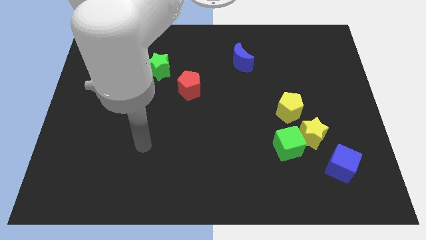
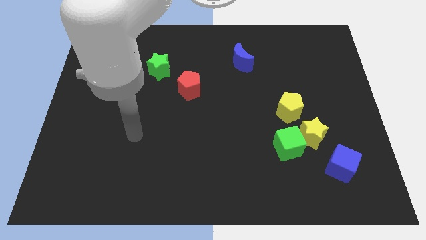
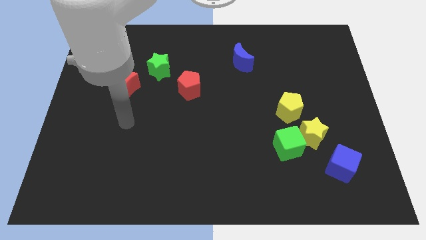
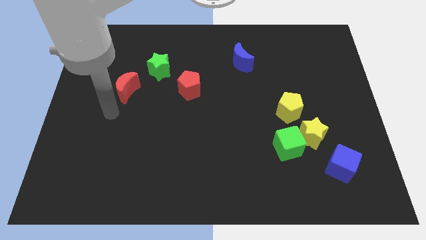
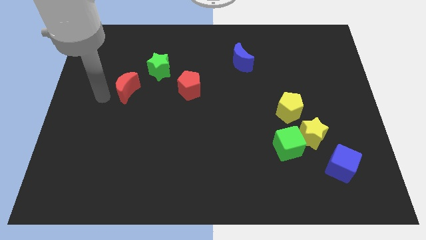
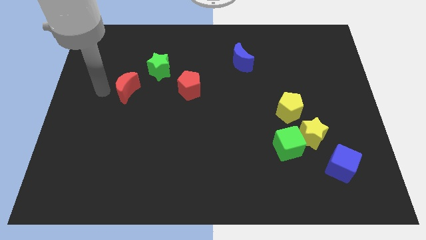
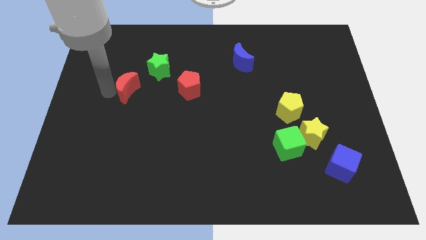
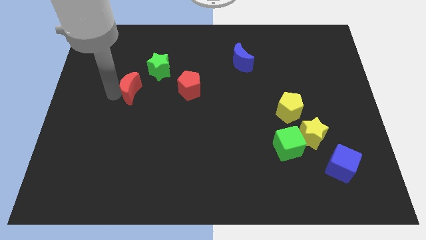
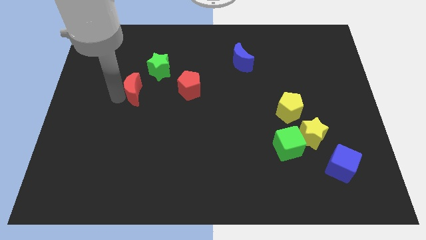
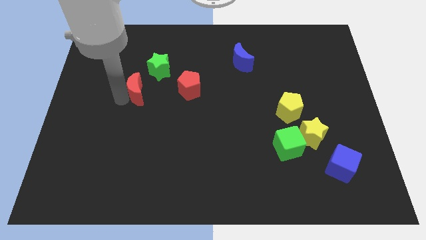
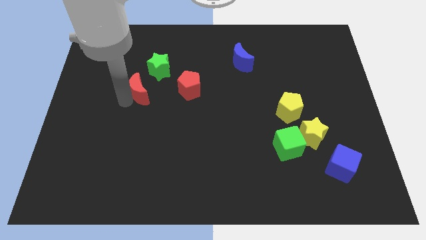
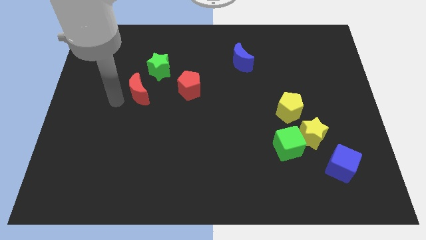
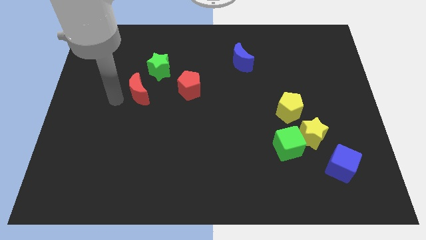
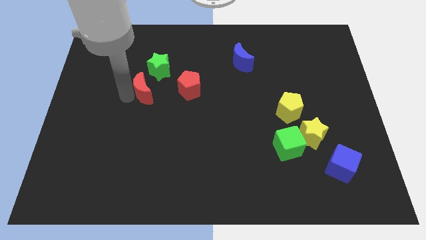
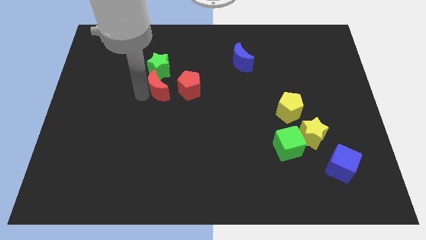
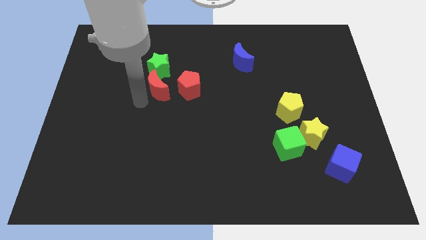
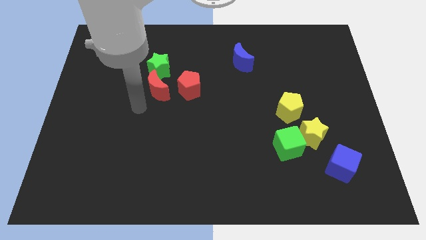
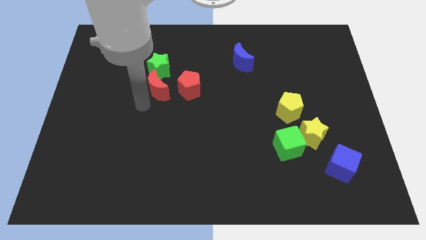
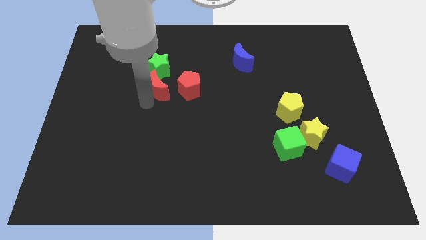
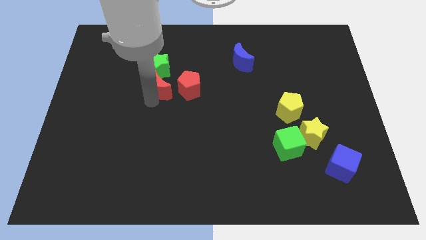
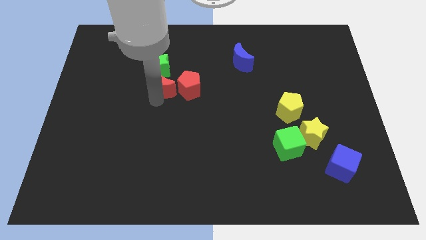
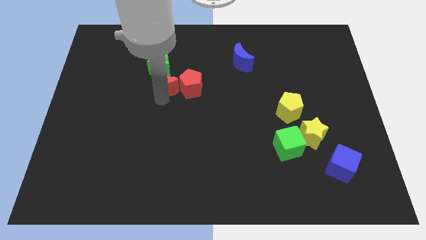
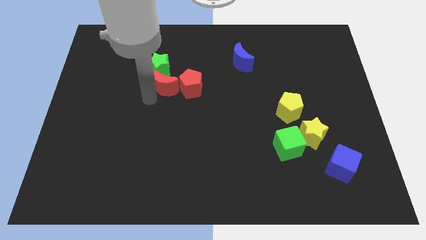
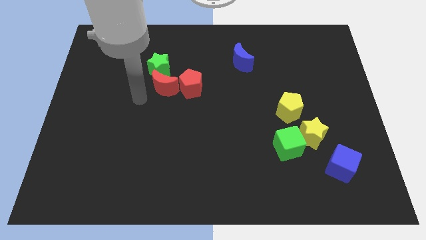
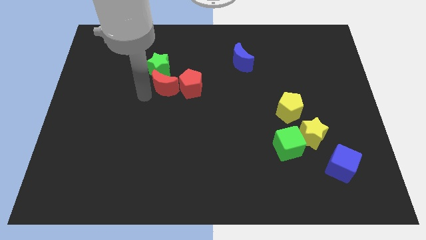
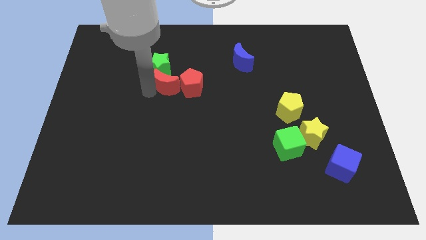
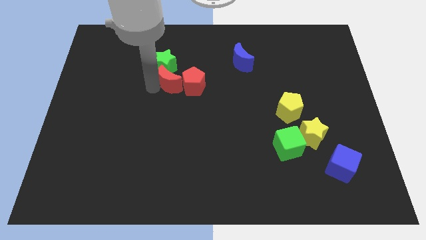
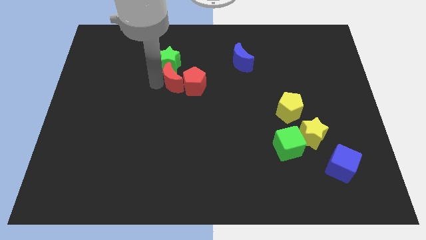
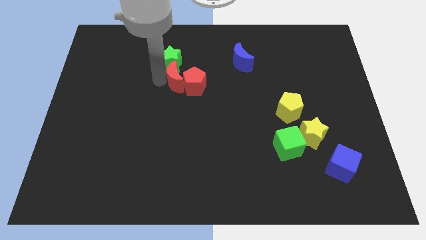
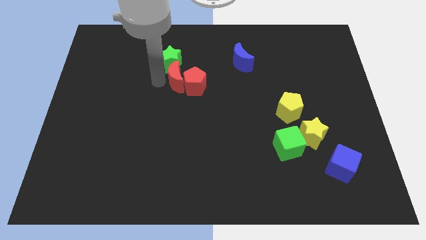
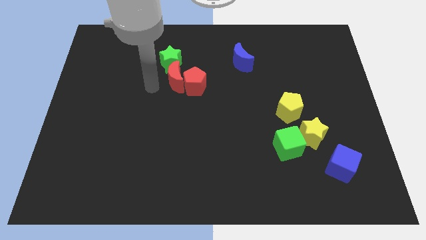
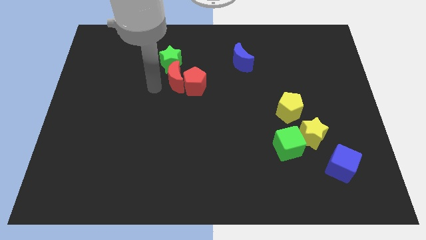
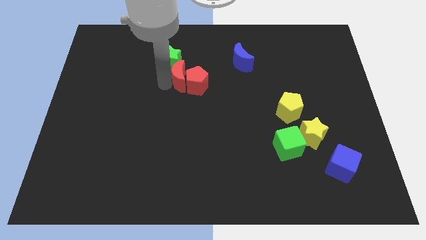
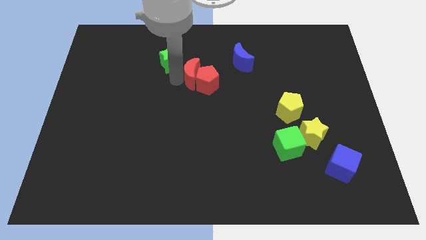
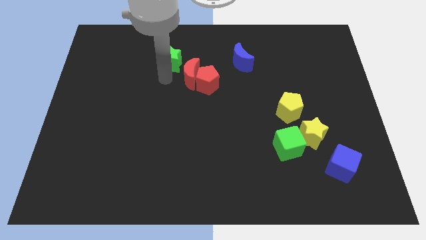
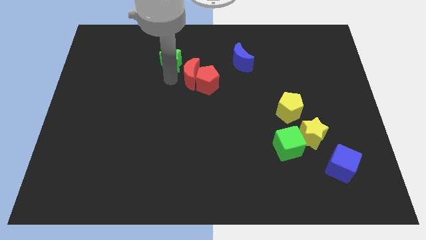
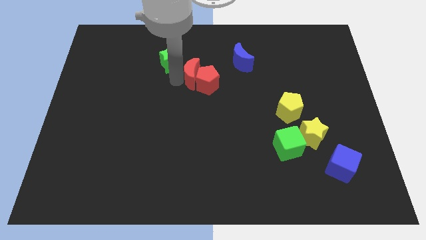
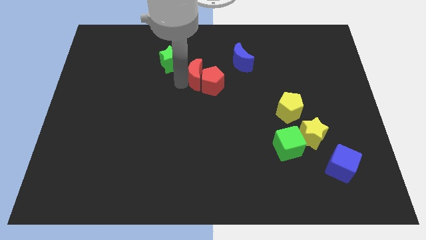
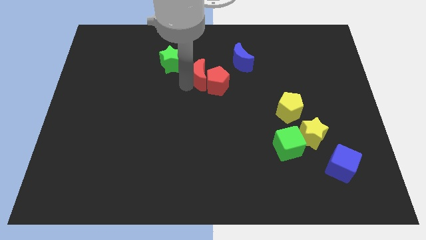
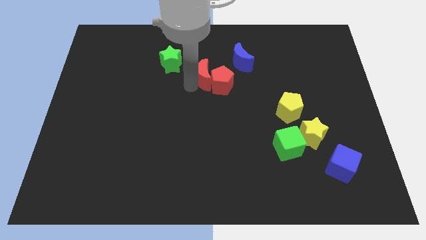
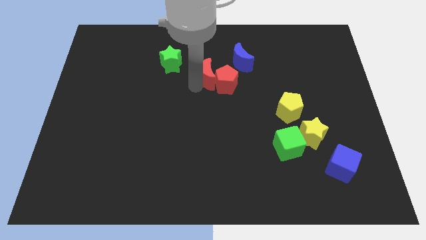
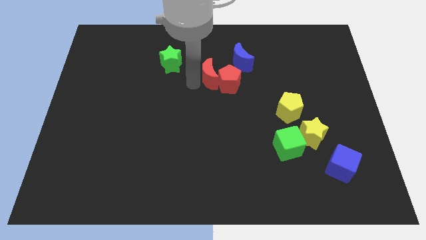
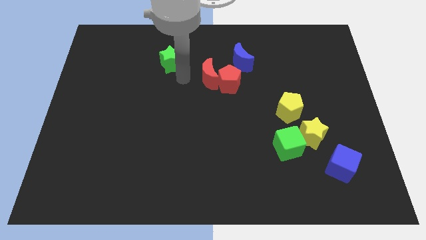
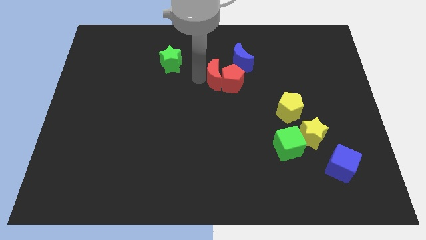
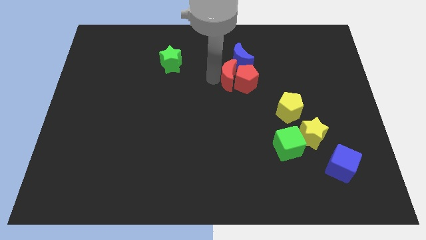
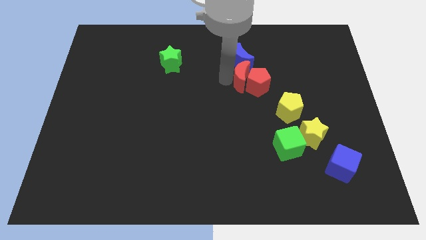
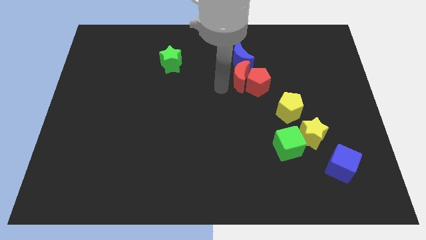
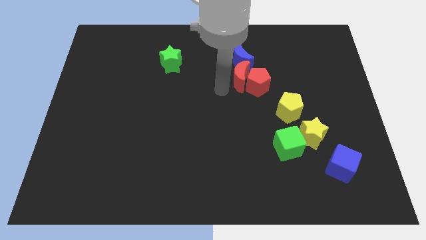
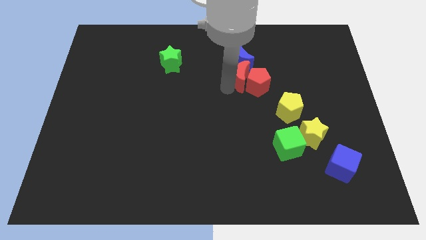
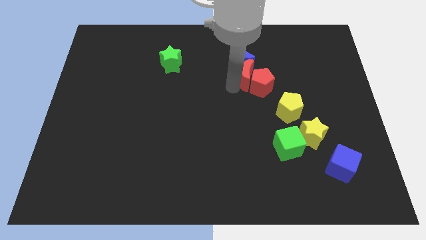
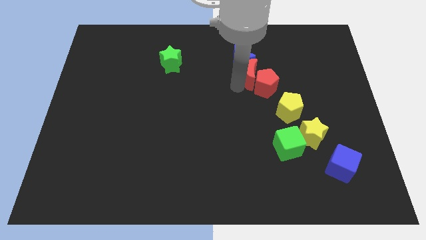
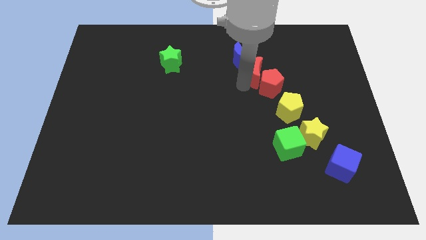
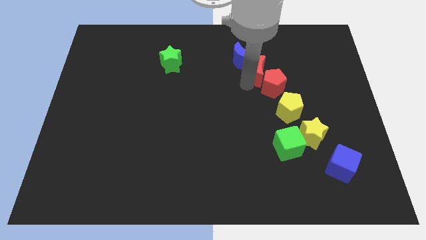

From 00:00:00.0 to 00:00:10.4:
push the red moon to the right of the blue moon

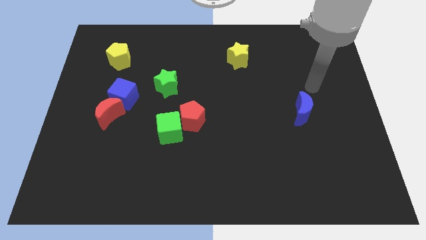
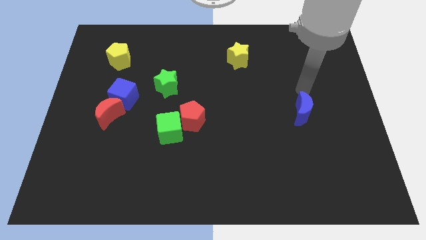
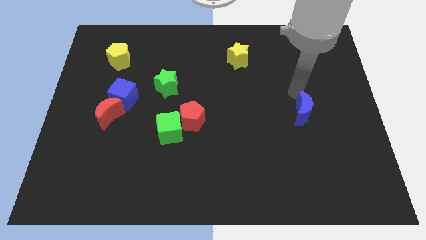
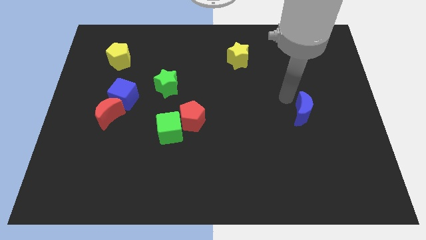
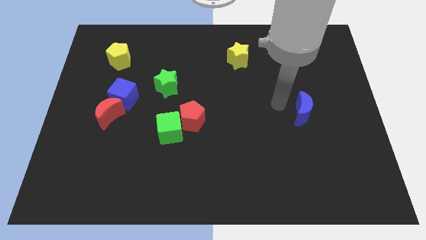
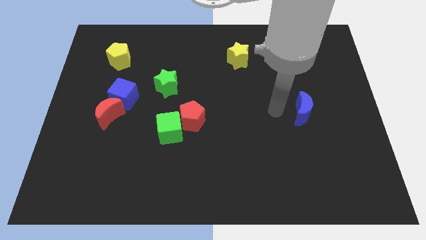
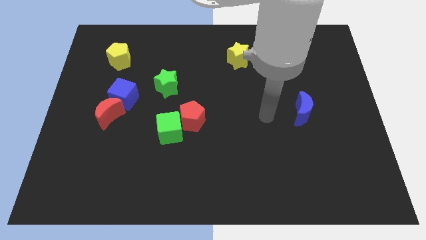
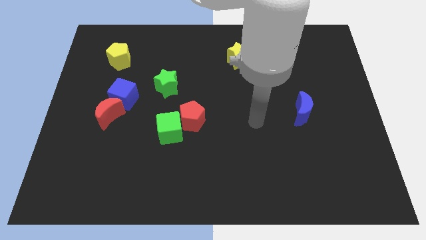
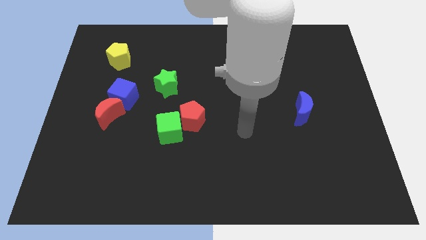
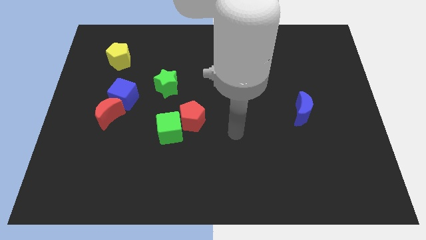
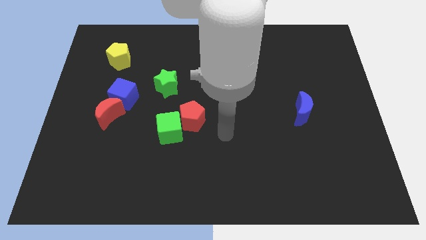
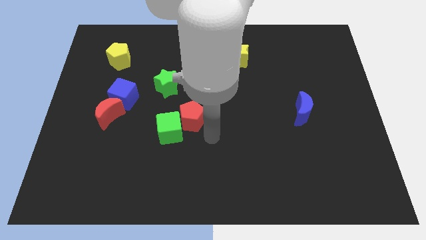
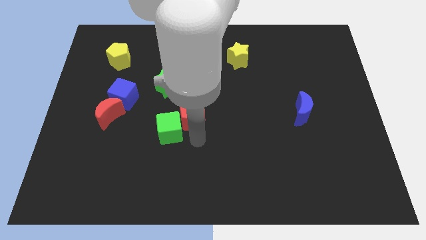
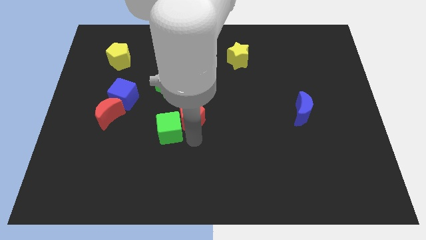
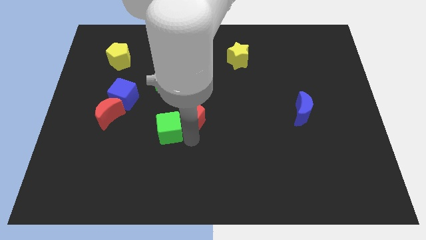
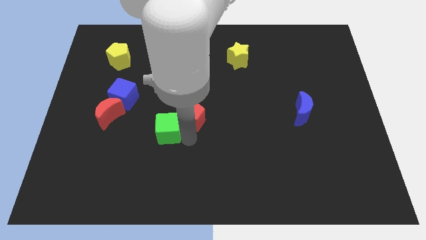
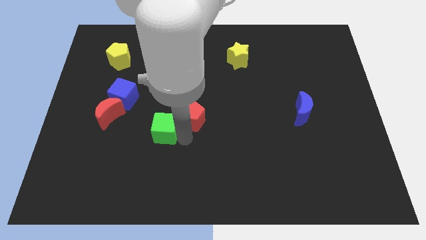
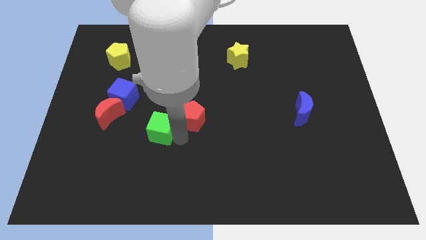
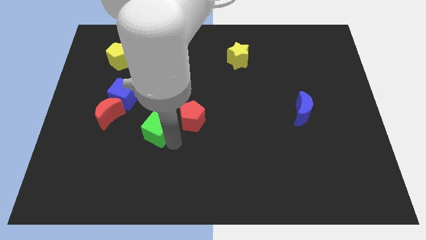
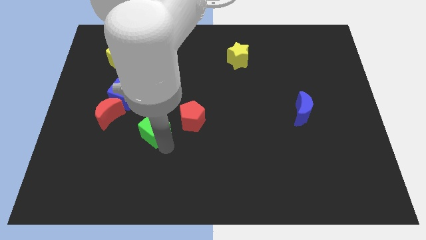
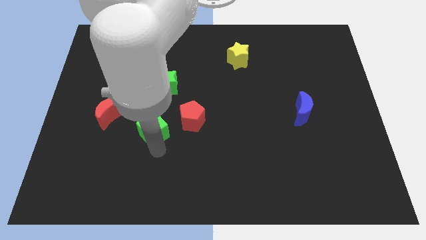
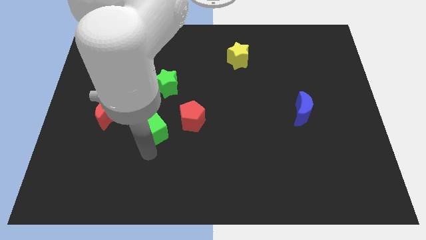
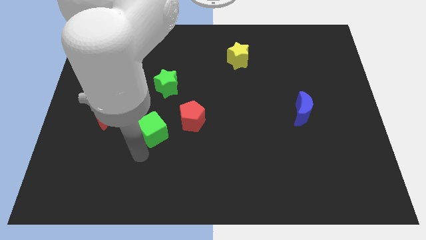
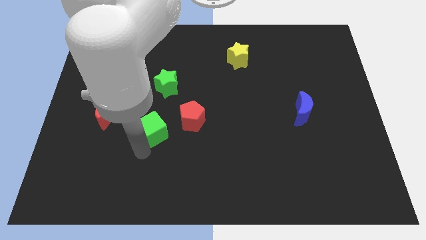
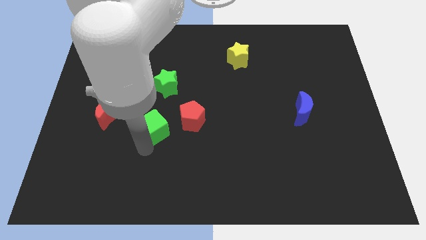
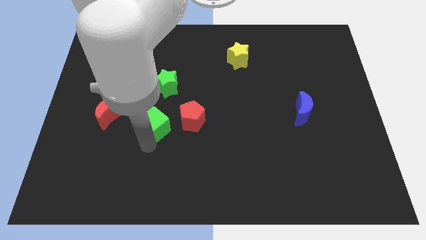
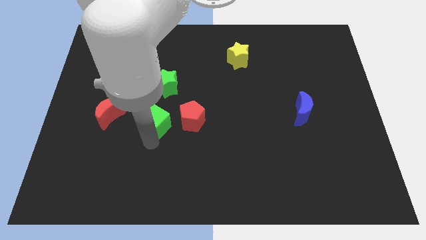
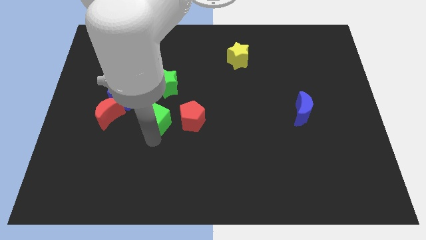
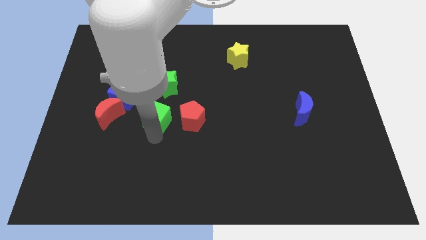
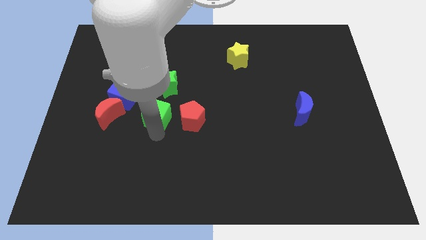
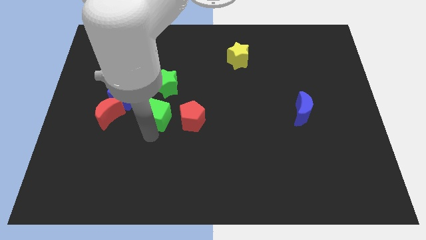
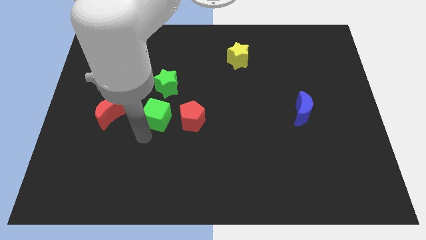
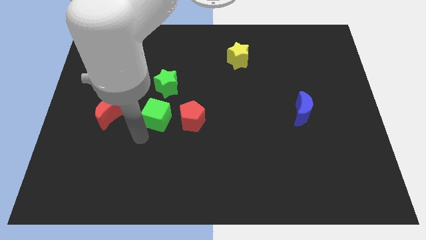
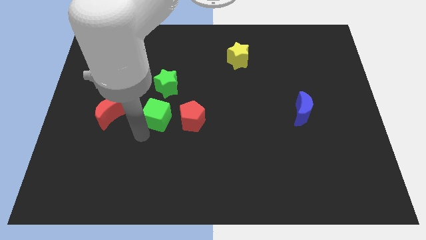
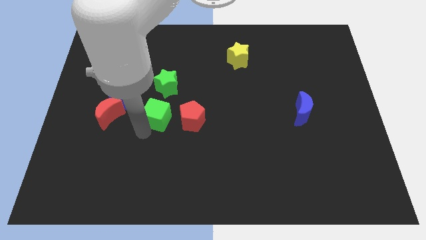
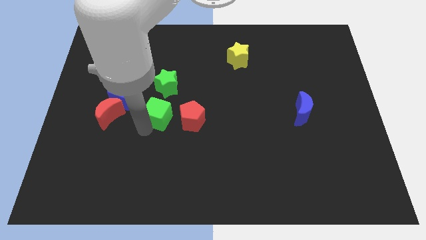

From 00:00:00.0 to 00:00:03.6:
slide the green cube to the top left side of the red pentagon
